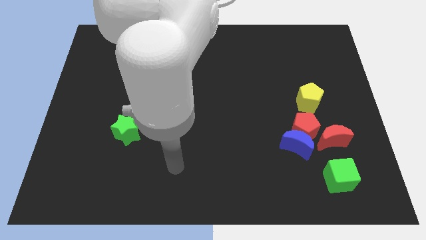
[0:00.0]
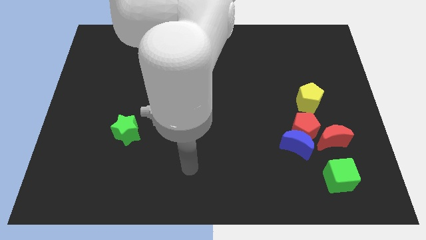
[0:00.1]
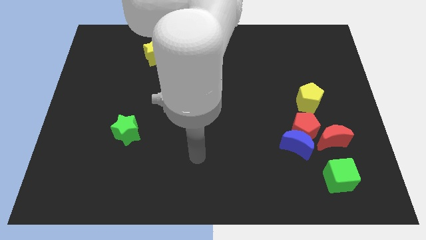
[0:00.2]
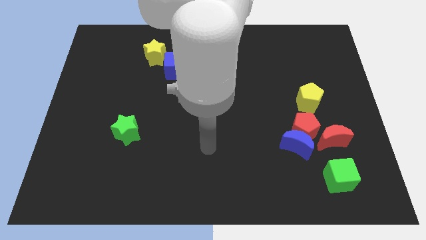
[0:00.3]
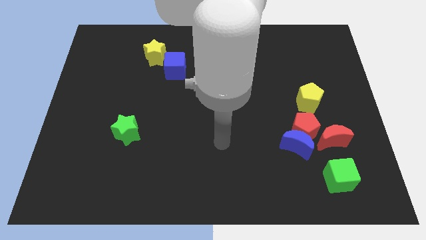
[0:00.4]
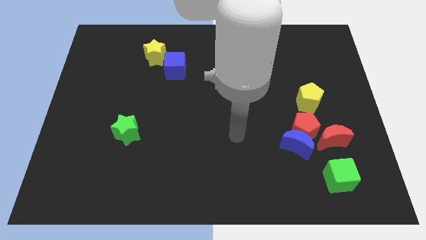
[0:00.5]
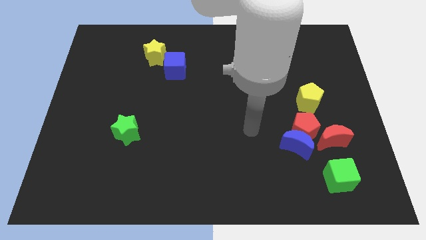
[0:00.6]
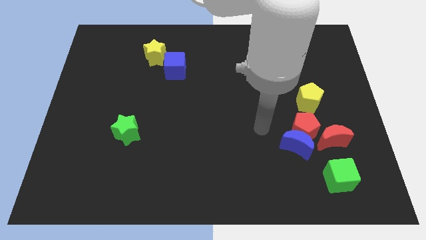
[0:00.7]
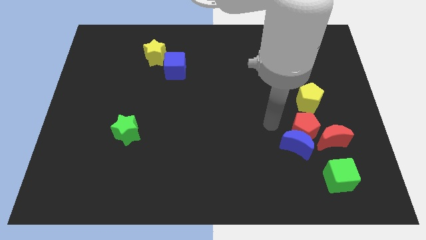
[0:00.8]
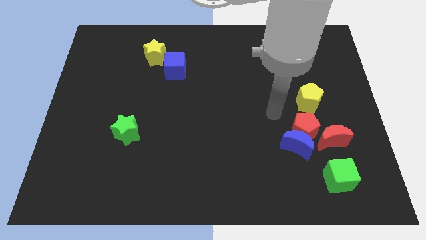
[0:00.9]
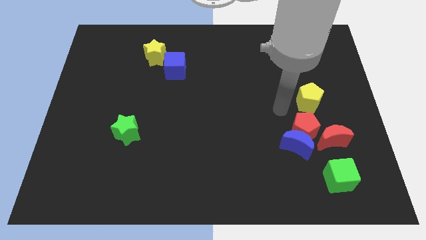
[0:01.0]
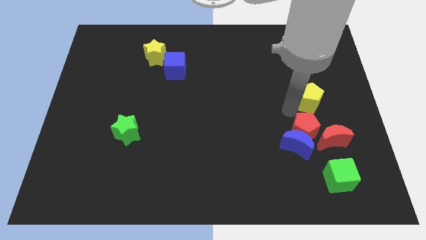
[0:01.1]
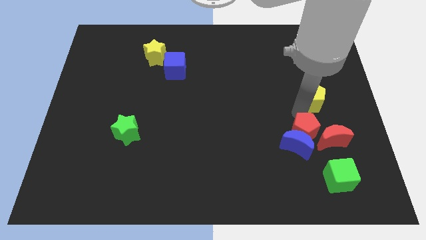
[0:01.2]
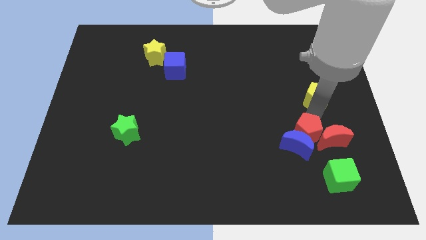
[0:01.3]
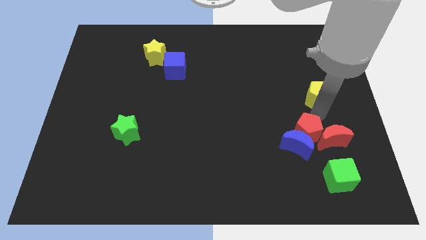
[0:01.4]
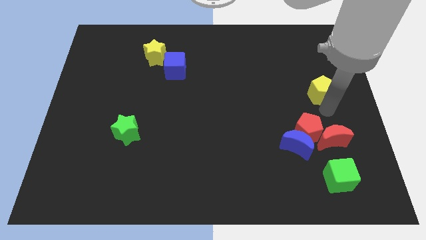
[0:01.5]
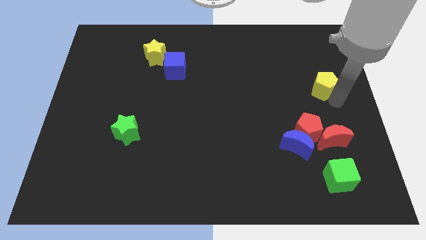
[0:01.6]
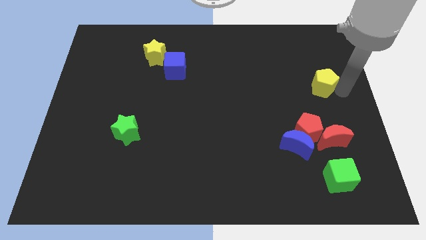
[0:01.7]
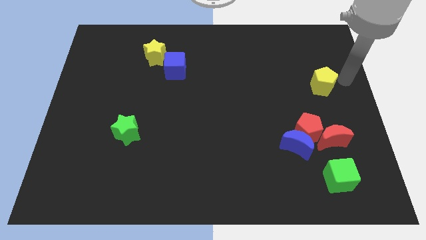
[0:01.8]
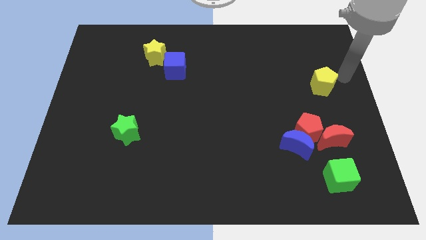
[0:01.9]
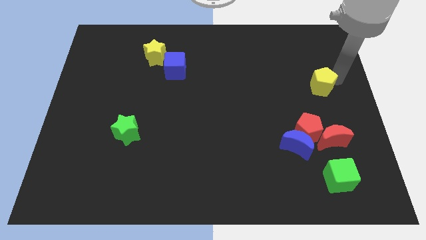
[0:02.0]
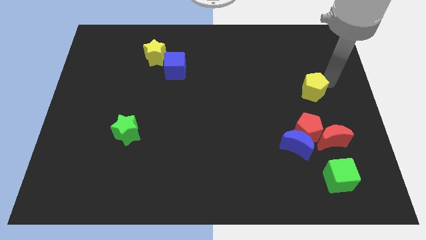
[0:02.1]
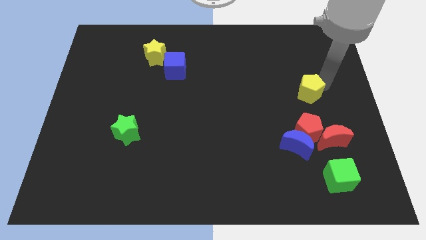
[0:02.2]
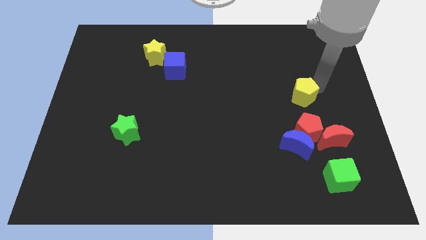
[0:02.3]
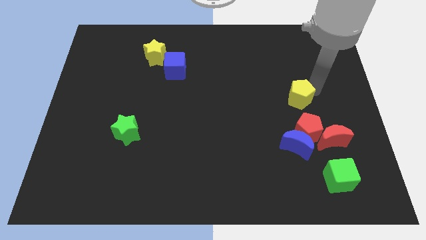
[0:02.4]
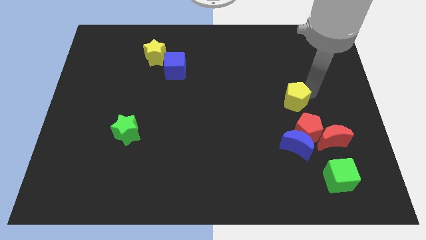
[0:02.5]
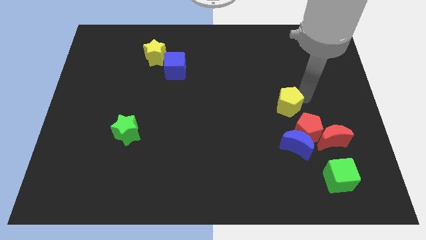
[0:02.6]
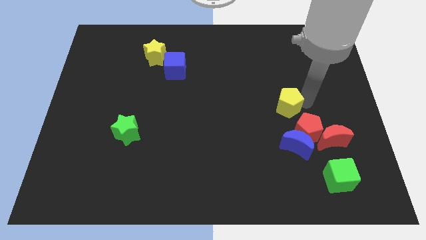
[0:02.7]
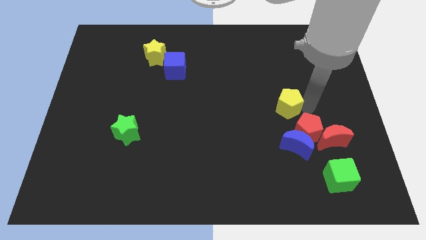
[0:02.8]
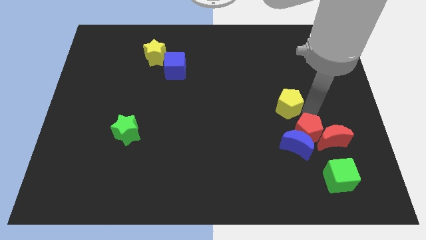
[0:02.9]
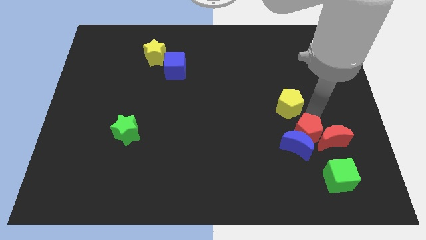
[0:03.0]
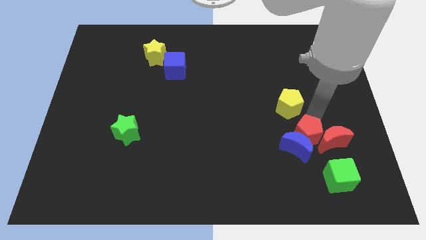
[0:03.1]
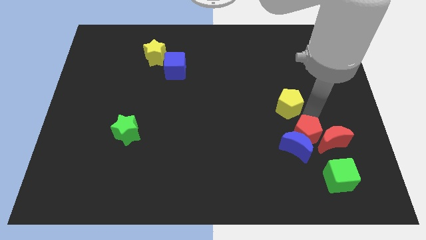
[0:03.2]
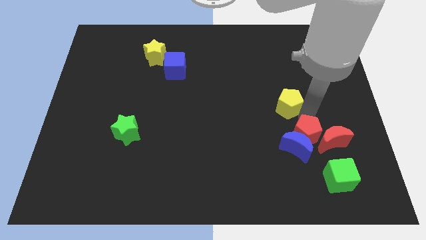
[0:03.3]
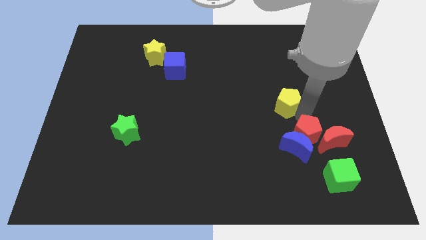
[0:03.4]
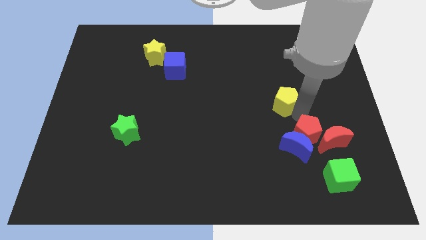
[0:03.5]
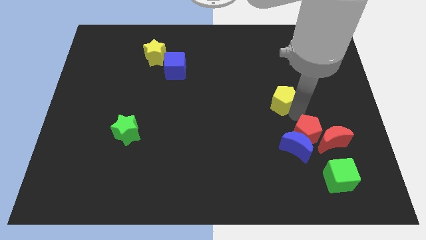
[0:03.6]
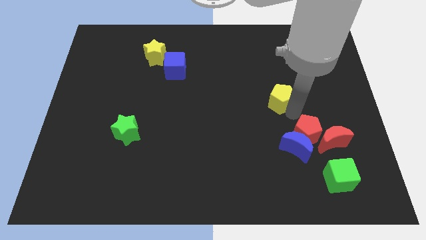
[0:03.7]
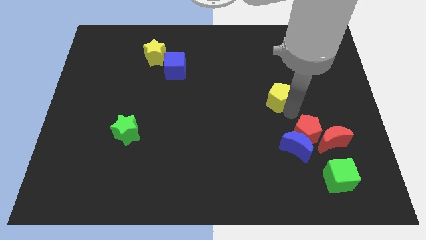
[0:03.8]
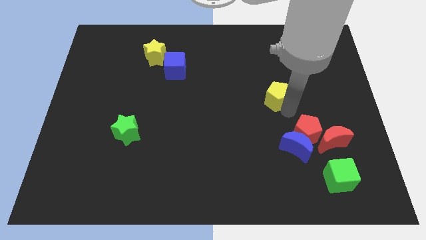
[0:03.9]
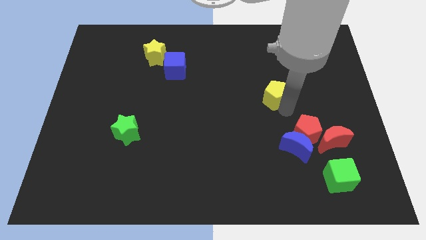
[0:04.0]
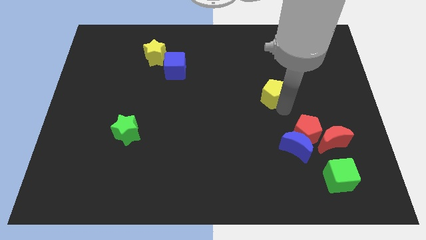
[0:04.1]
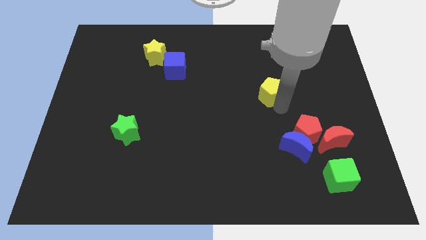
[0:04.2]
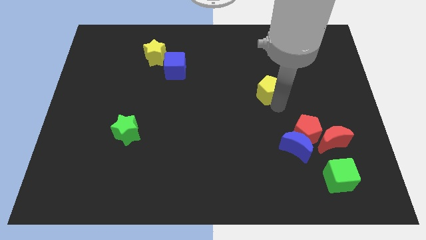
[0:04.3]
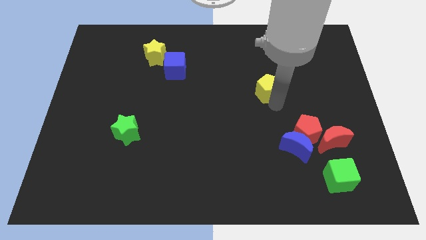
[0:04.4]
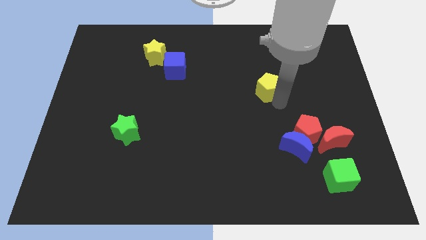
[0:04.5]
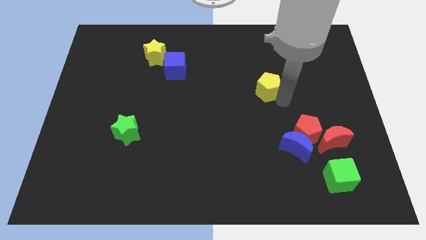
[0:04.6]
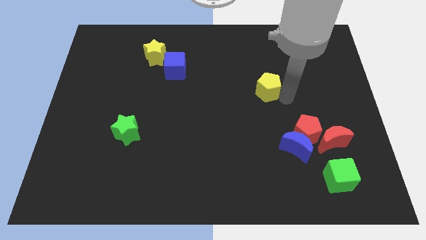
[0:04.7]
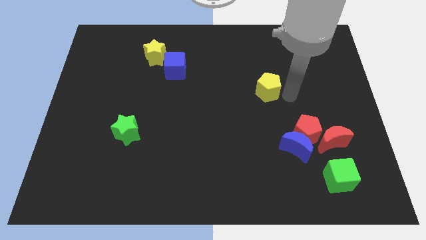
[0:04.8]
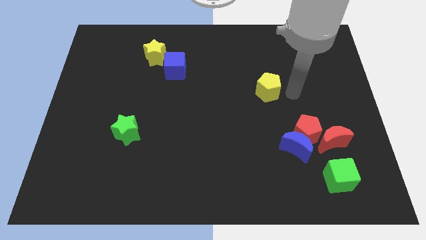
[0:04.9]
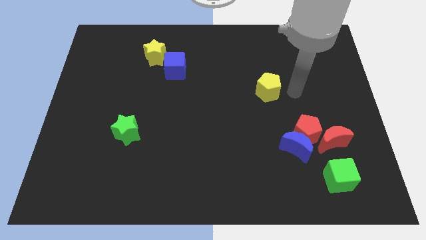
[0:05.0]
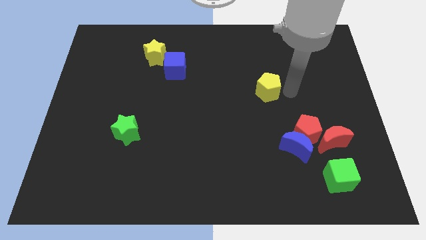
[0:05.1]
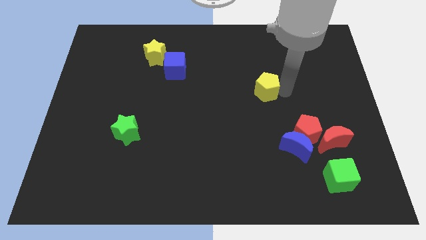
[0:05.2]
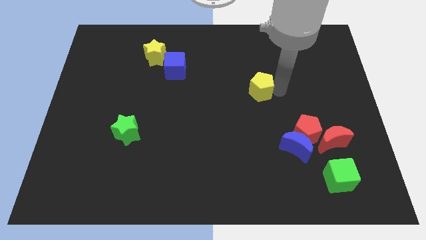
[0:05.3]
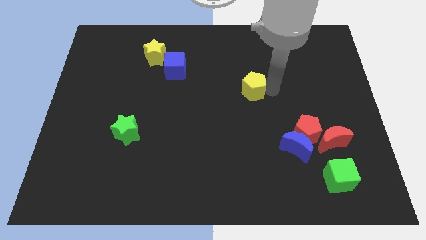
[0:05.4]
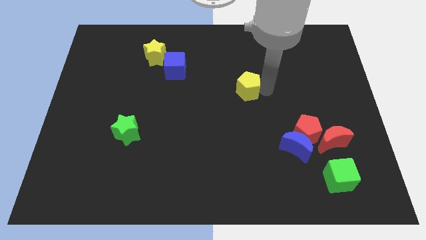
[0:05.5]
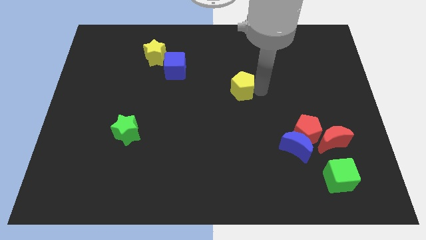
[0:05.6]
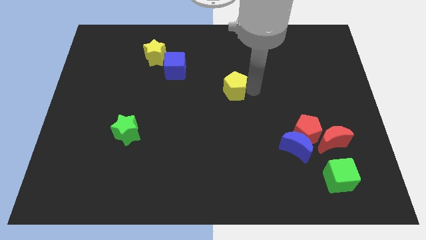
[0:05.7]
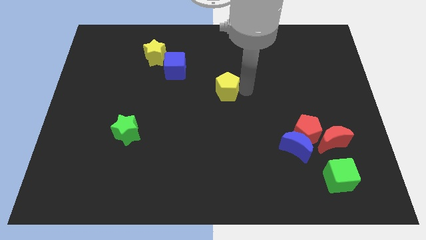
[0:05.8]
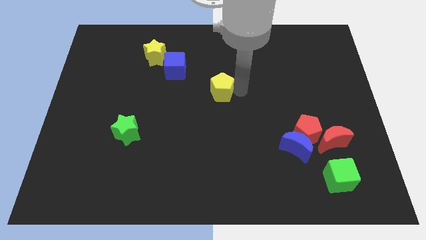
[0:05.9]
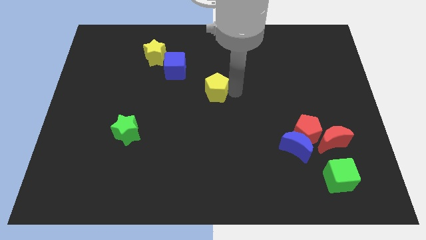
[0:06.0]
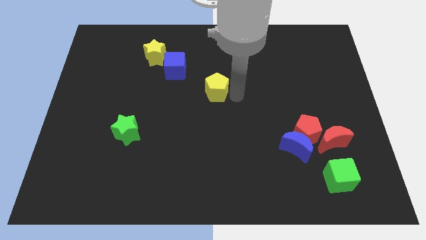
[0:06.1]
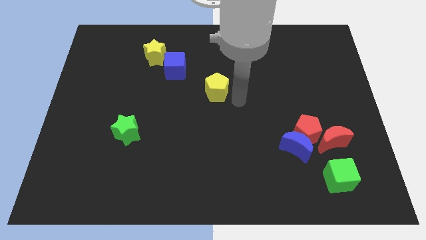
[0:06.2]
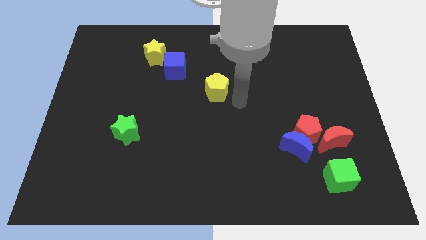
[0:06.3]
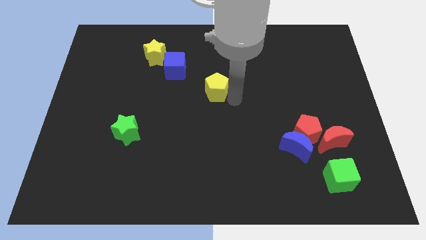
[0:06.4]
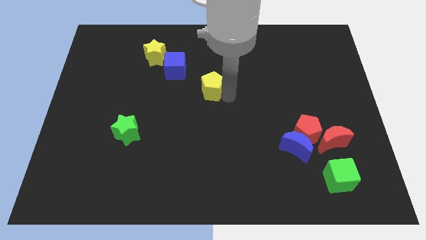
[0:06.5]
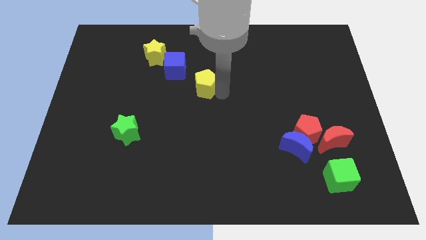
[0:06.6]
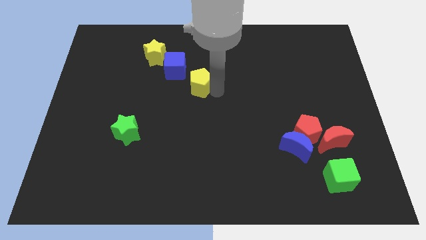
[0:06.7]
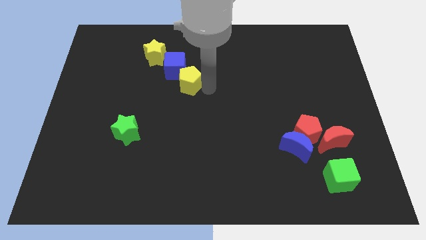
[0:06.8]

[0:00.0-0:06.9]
push the yellow pentagon towards the blue cube

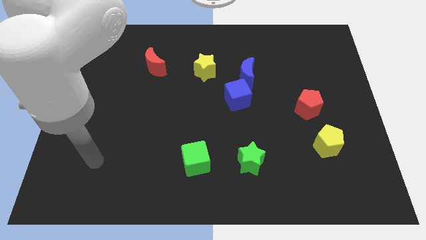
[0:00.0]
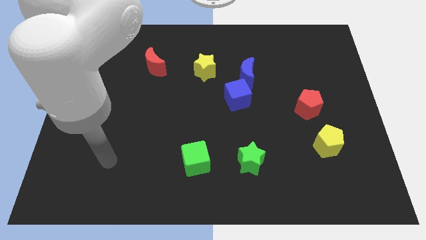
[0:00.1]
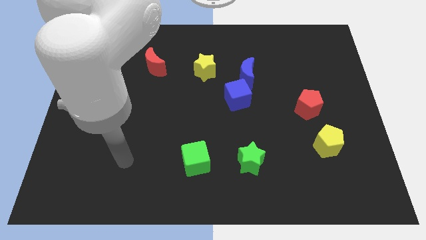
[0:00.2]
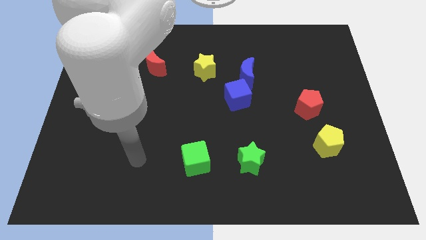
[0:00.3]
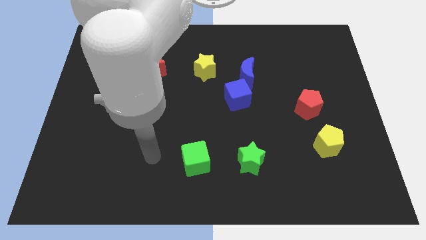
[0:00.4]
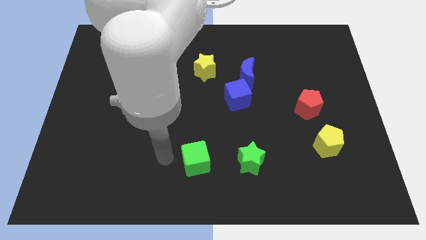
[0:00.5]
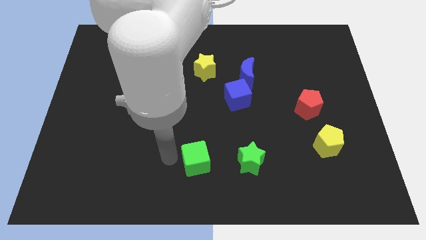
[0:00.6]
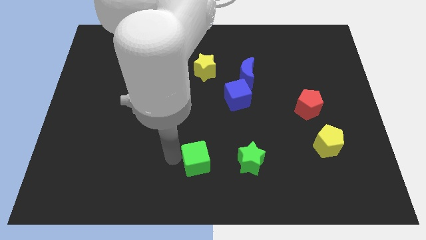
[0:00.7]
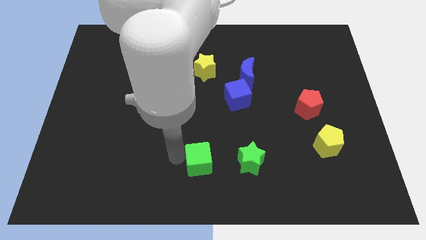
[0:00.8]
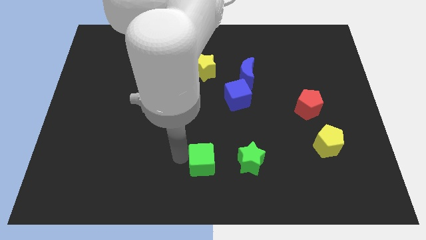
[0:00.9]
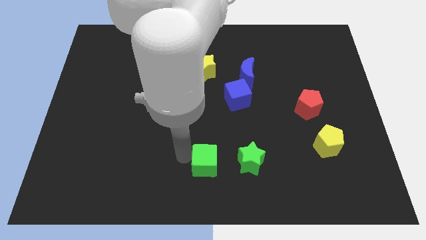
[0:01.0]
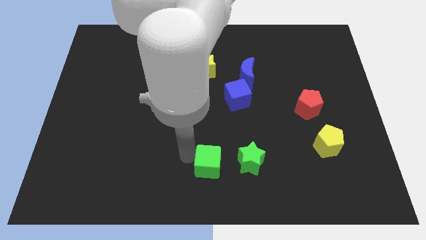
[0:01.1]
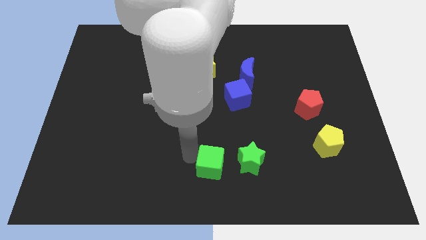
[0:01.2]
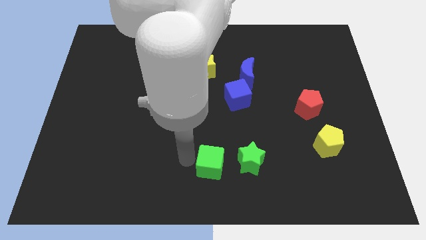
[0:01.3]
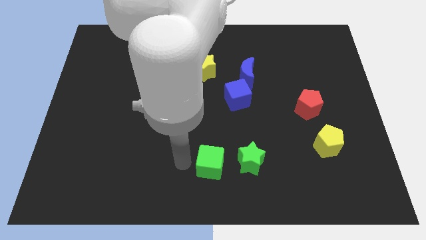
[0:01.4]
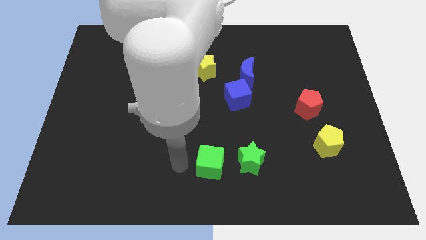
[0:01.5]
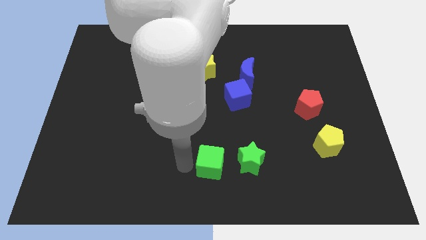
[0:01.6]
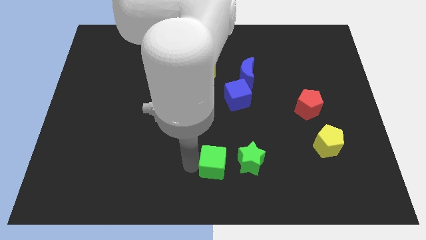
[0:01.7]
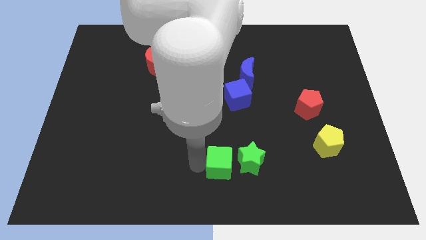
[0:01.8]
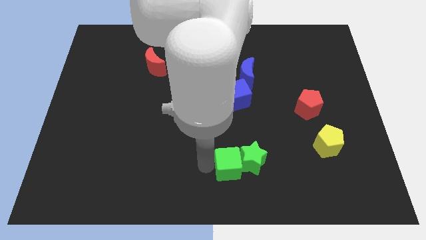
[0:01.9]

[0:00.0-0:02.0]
put the green cube to the green star
